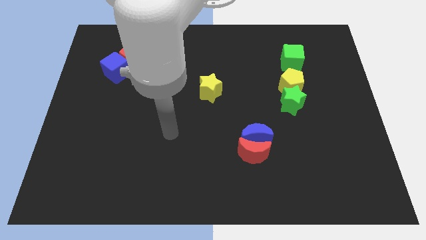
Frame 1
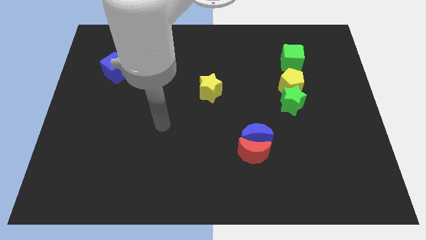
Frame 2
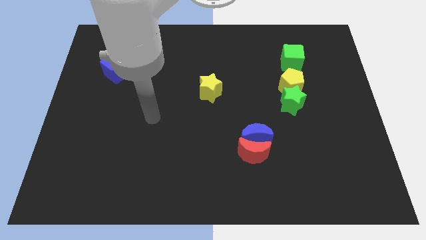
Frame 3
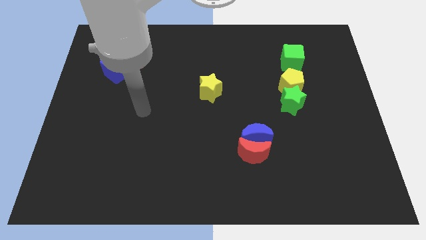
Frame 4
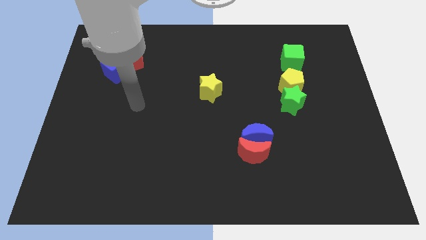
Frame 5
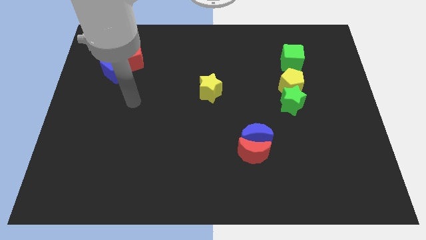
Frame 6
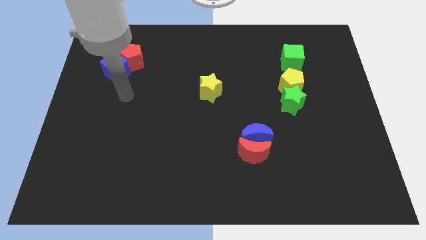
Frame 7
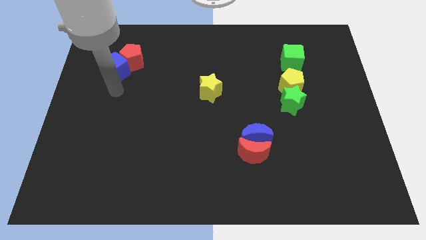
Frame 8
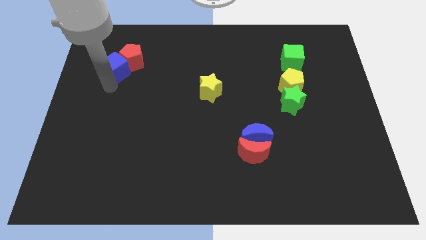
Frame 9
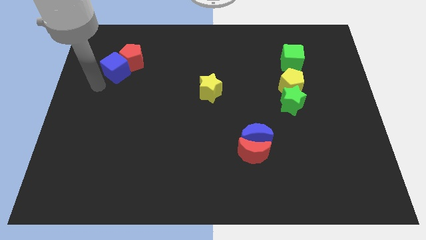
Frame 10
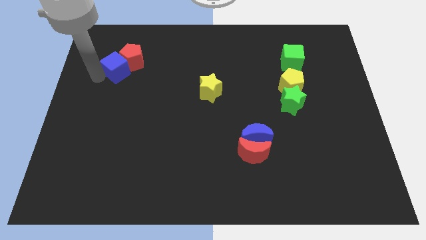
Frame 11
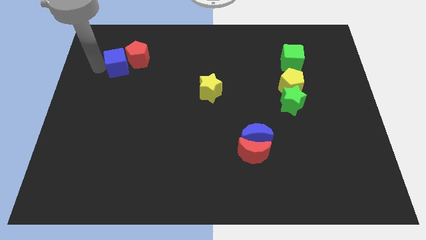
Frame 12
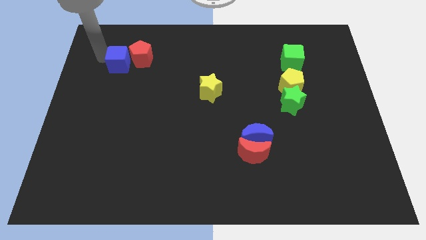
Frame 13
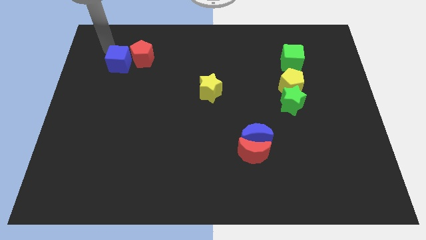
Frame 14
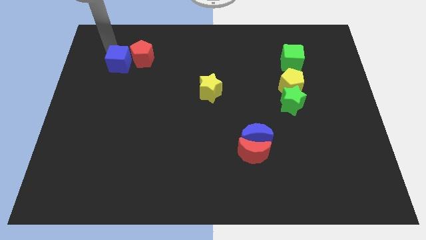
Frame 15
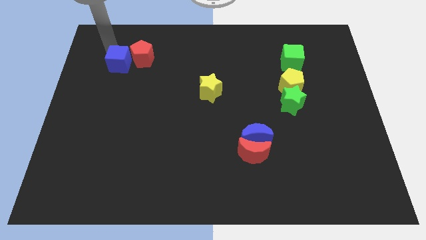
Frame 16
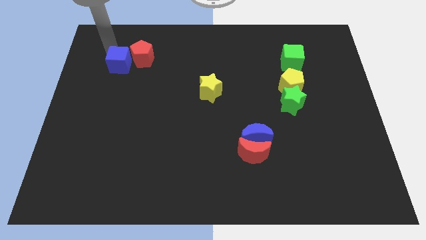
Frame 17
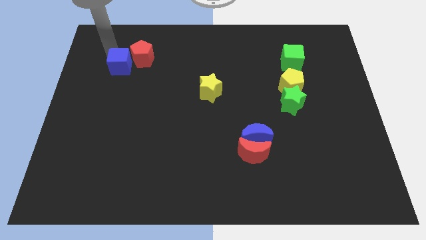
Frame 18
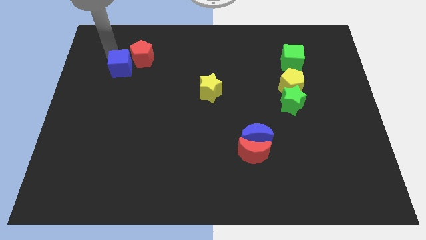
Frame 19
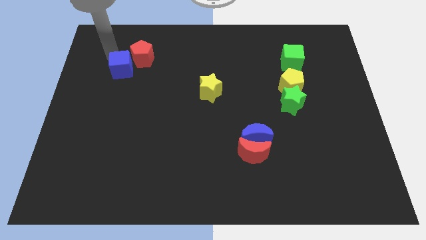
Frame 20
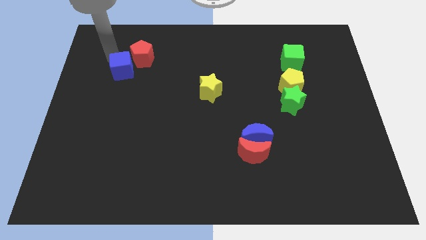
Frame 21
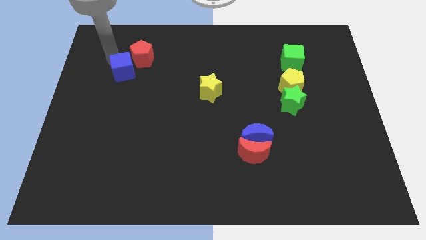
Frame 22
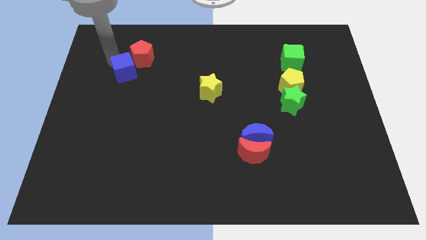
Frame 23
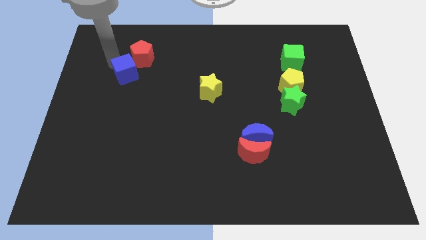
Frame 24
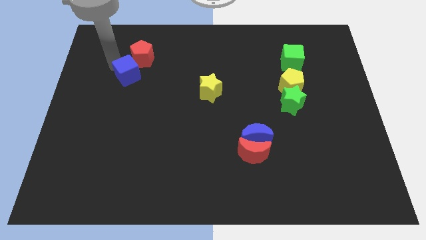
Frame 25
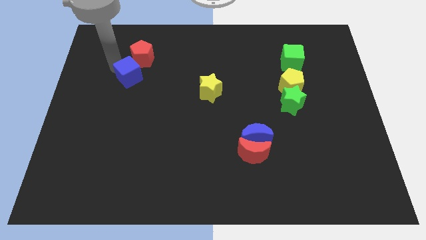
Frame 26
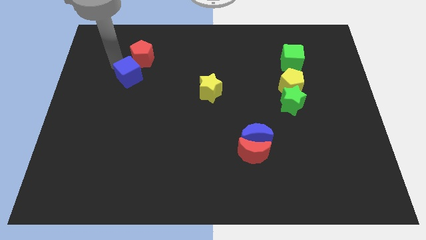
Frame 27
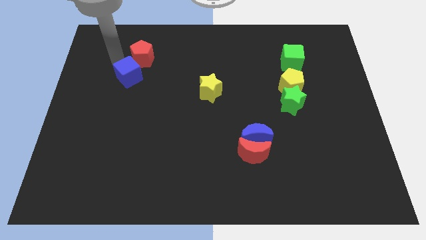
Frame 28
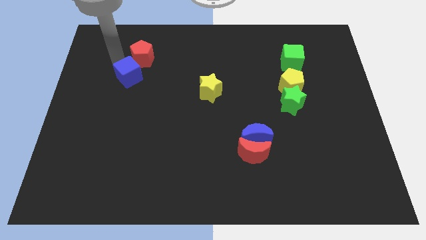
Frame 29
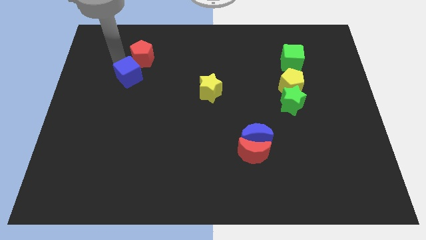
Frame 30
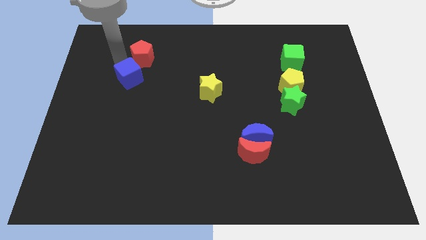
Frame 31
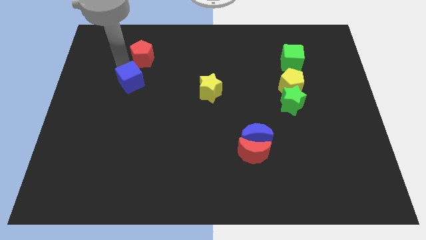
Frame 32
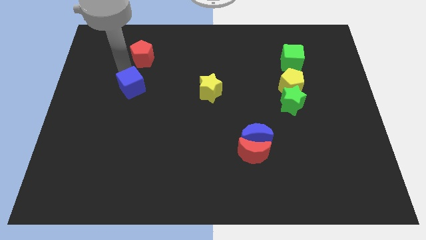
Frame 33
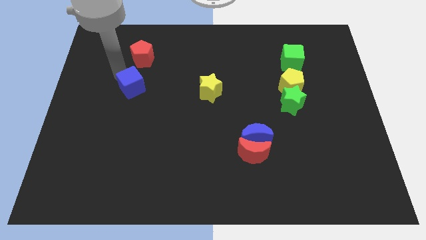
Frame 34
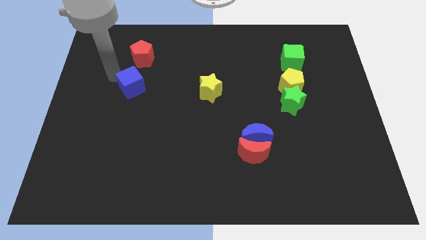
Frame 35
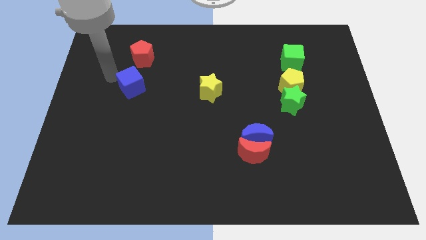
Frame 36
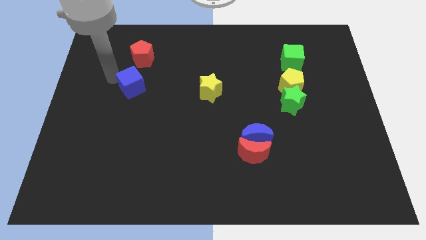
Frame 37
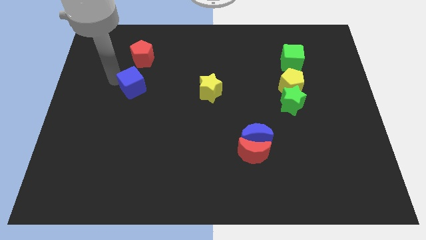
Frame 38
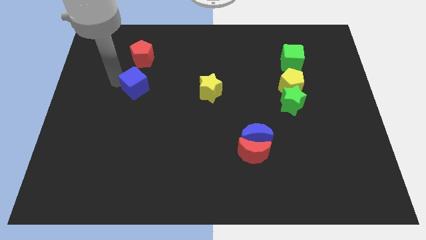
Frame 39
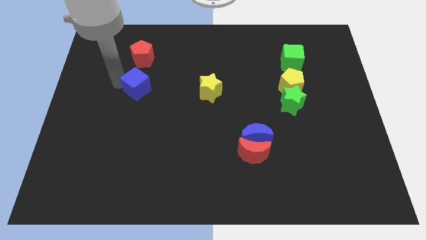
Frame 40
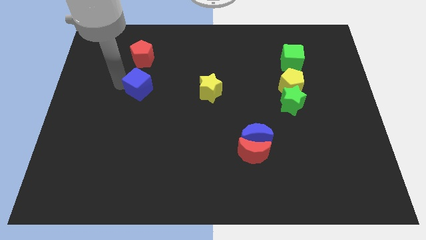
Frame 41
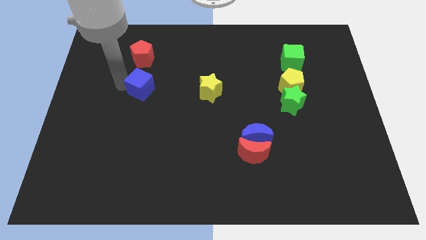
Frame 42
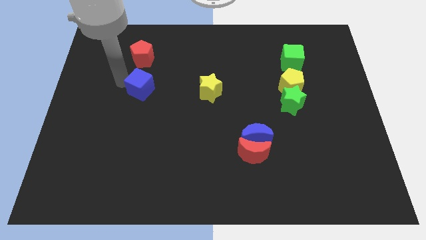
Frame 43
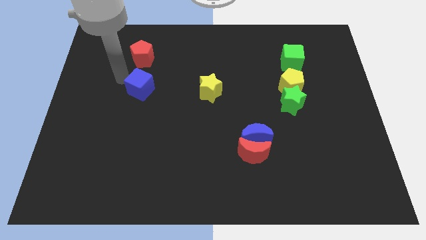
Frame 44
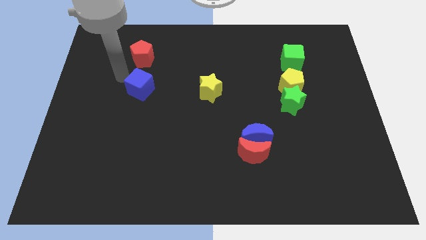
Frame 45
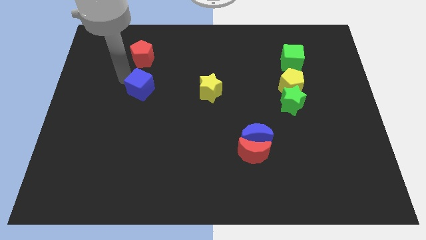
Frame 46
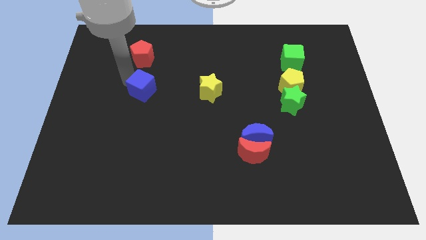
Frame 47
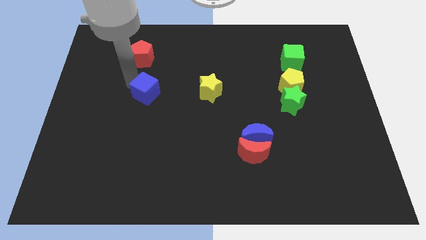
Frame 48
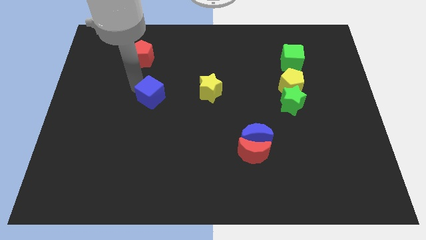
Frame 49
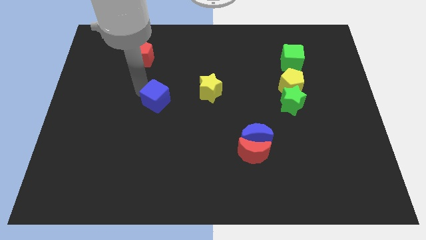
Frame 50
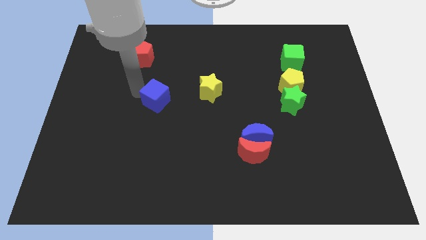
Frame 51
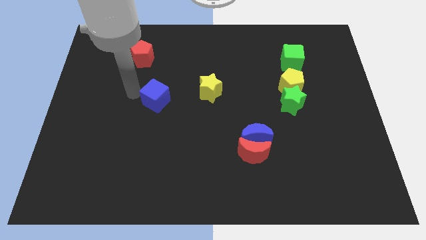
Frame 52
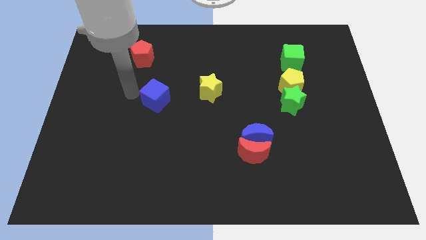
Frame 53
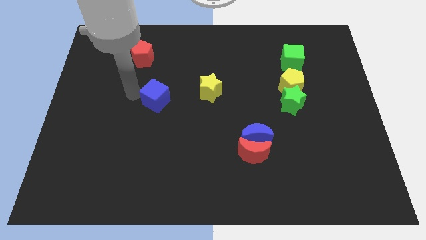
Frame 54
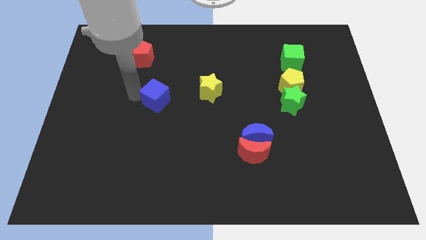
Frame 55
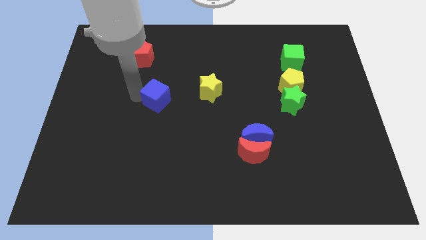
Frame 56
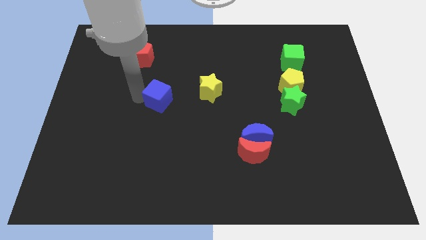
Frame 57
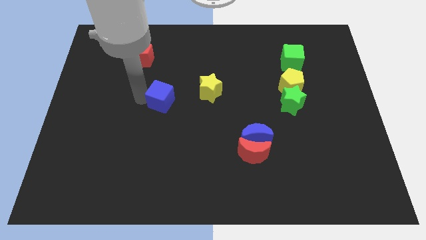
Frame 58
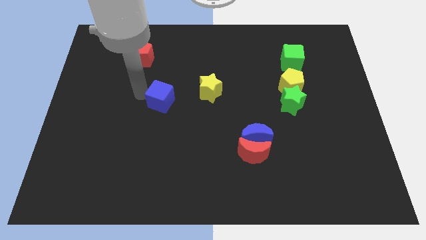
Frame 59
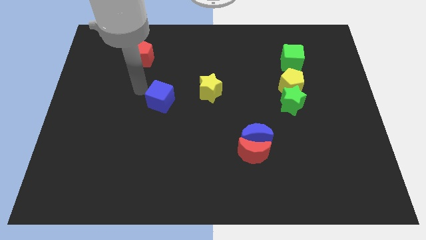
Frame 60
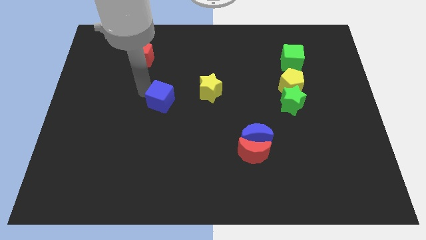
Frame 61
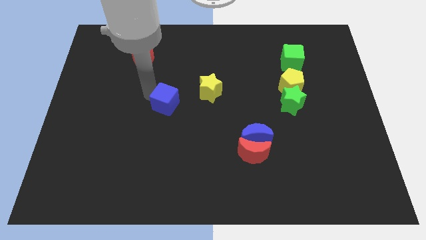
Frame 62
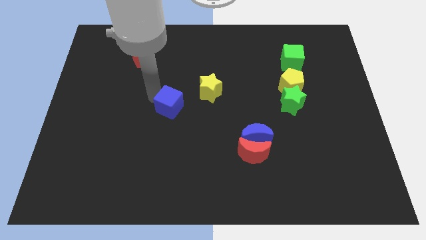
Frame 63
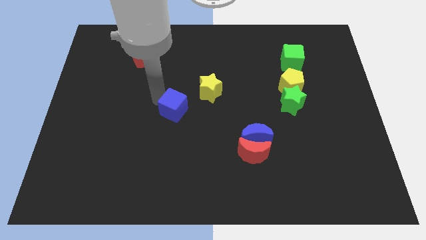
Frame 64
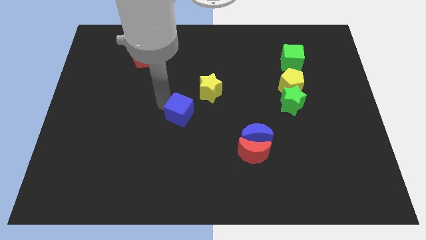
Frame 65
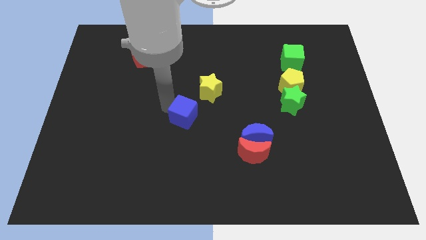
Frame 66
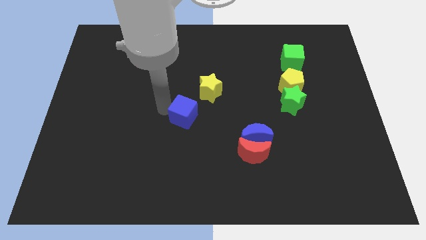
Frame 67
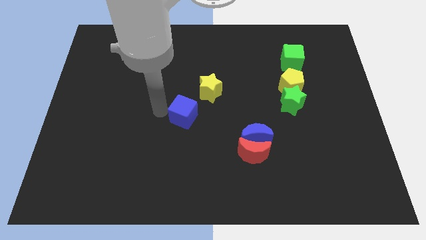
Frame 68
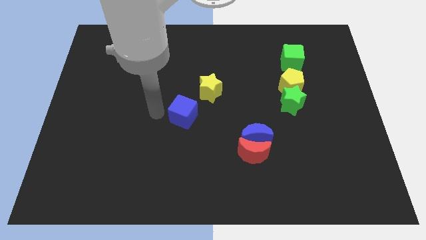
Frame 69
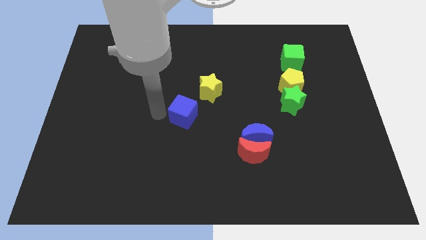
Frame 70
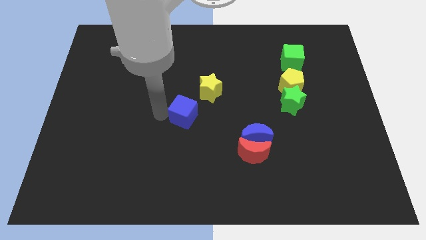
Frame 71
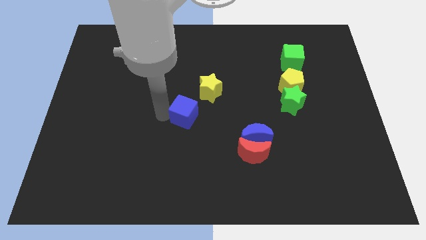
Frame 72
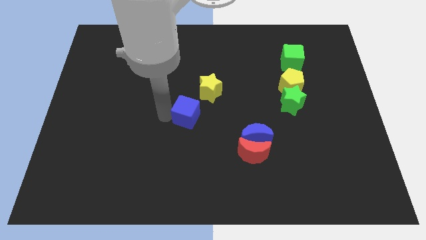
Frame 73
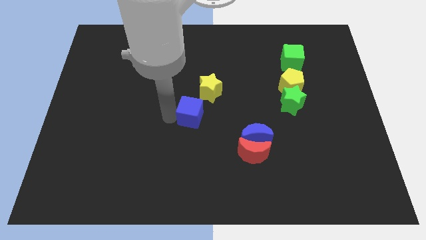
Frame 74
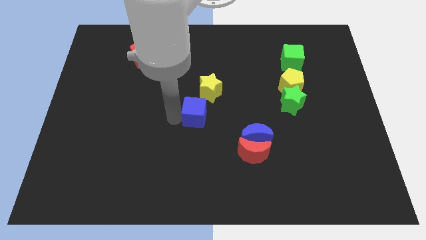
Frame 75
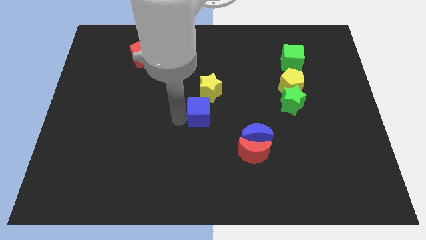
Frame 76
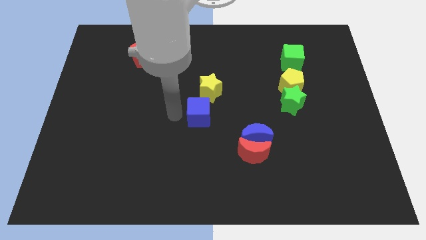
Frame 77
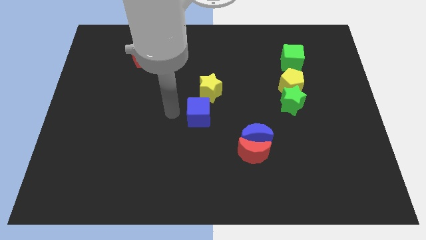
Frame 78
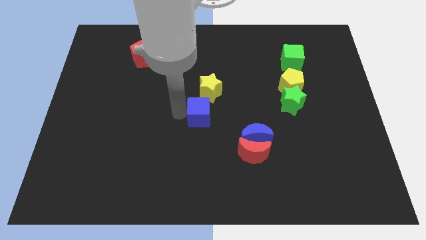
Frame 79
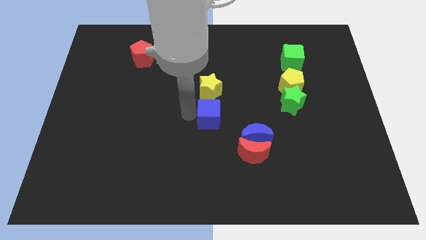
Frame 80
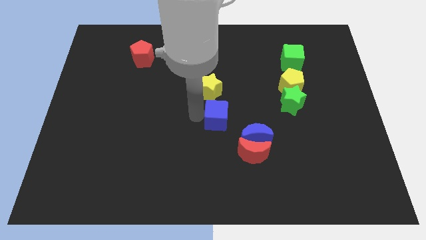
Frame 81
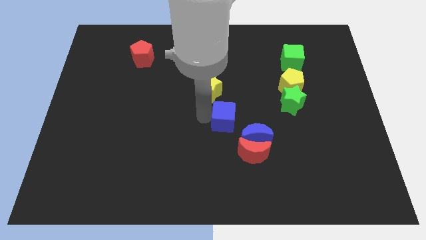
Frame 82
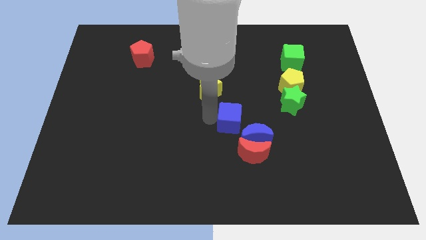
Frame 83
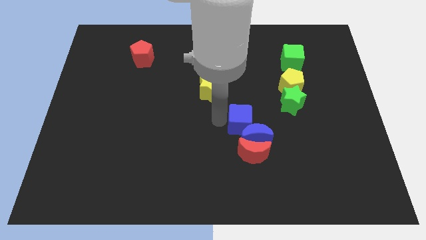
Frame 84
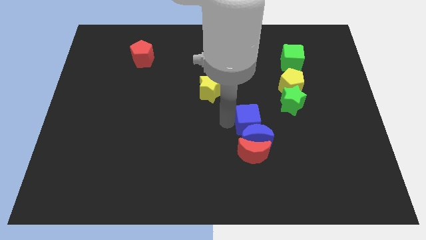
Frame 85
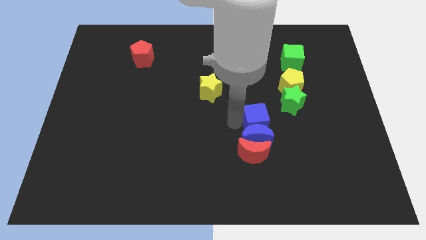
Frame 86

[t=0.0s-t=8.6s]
put the blue cube to the bottom left side of the green star
